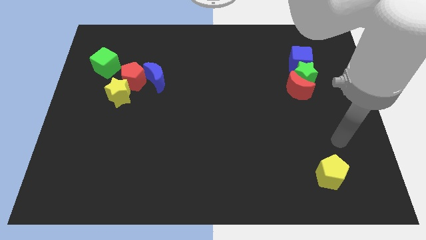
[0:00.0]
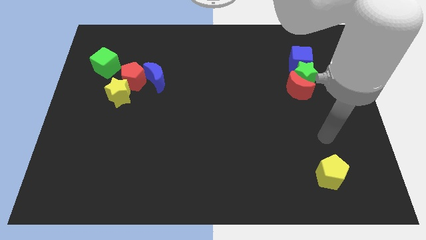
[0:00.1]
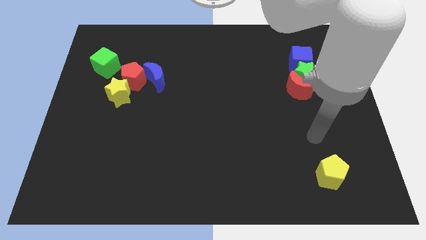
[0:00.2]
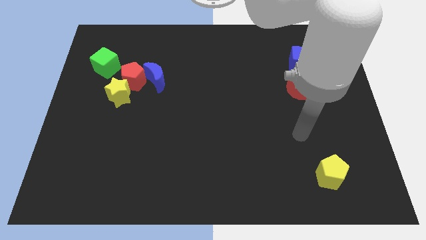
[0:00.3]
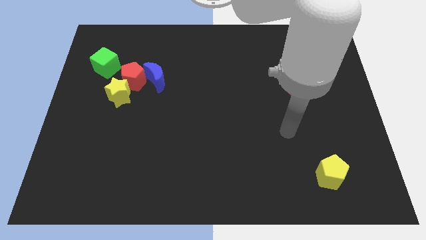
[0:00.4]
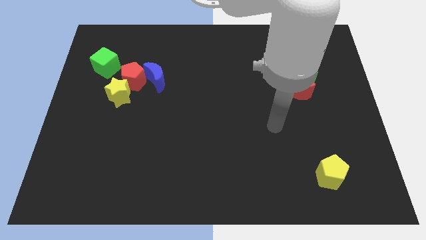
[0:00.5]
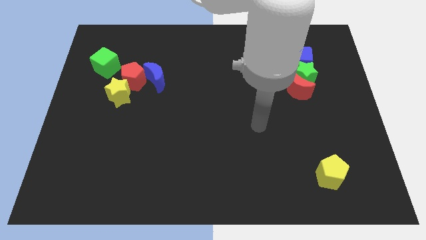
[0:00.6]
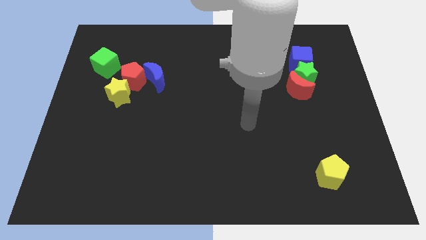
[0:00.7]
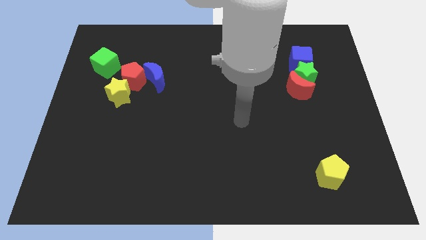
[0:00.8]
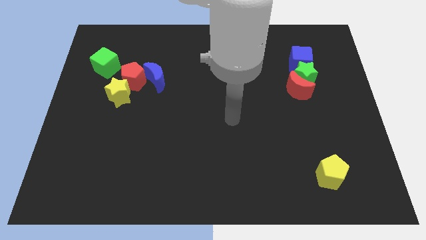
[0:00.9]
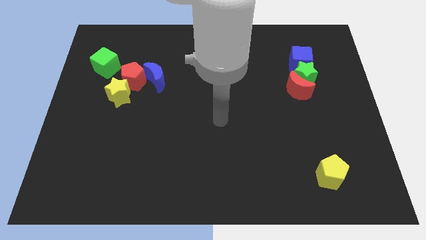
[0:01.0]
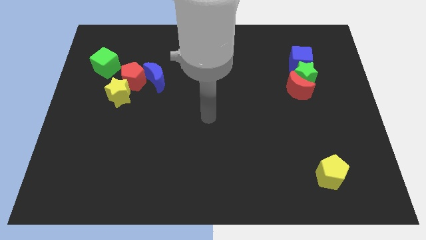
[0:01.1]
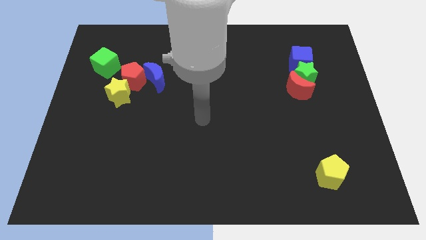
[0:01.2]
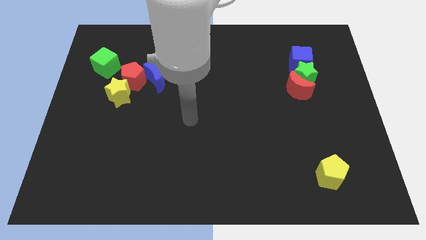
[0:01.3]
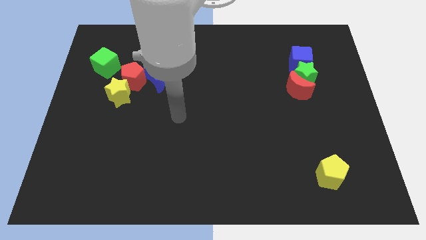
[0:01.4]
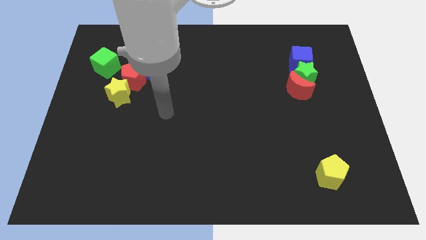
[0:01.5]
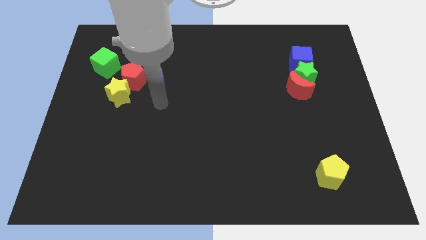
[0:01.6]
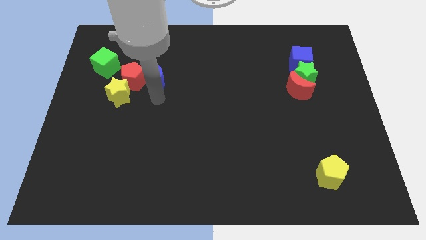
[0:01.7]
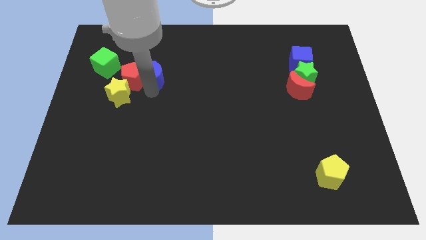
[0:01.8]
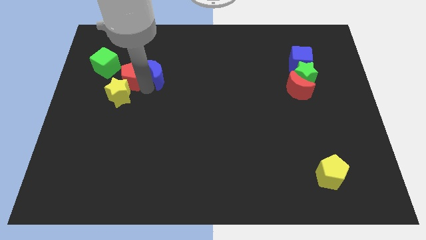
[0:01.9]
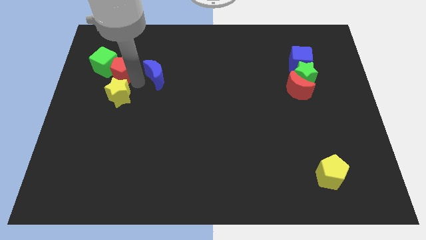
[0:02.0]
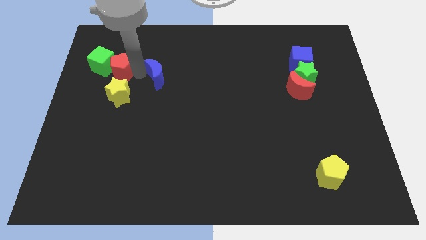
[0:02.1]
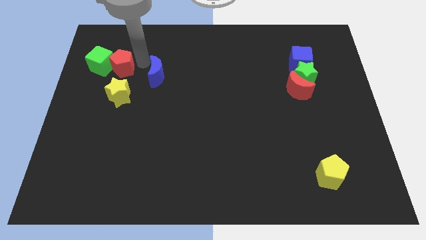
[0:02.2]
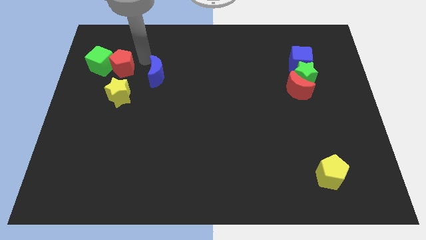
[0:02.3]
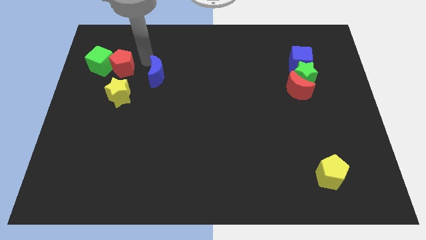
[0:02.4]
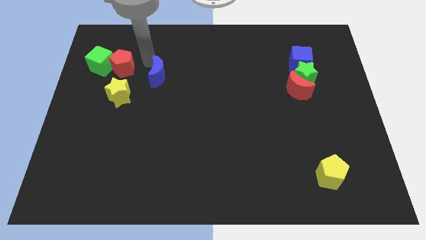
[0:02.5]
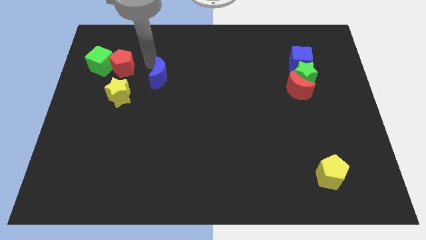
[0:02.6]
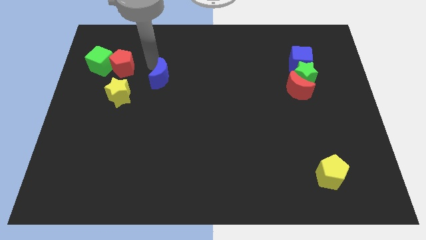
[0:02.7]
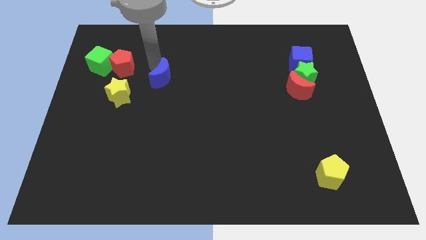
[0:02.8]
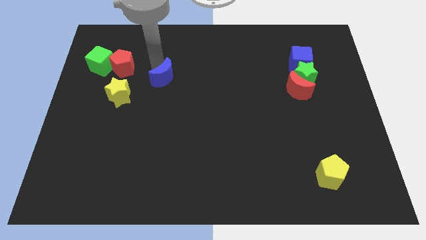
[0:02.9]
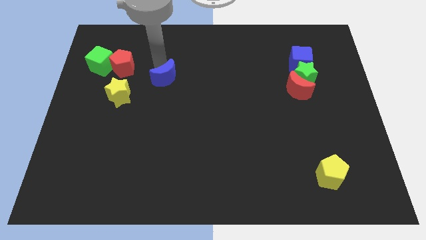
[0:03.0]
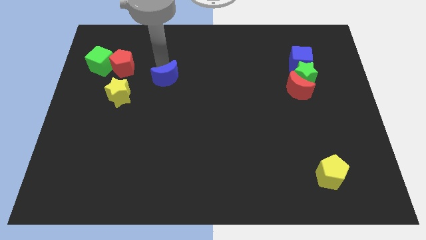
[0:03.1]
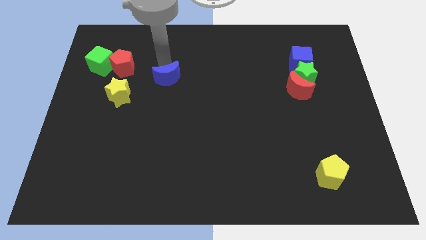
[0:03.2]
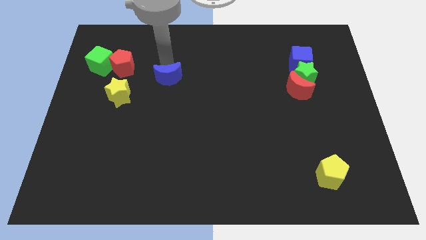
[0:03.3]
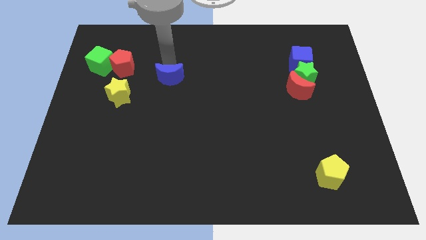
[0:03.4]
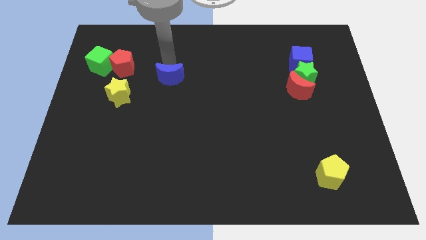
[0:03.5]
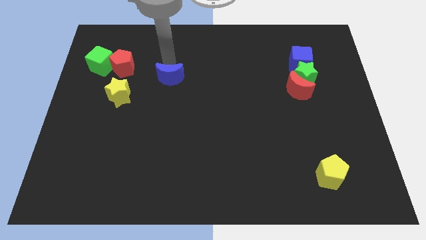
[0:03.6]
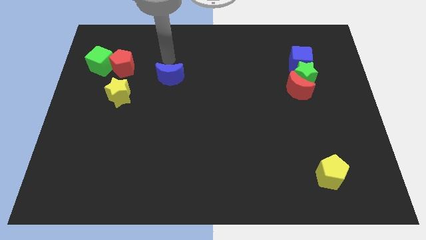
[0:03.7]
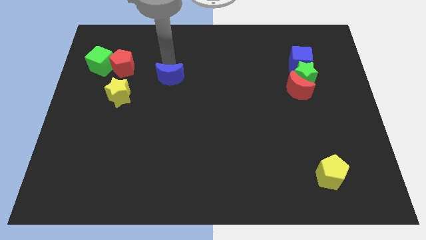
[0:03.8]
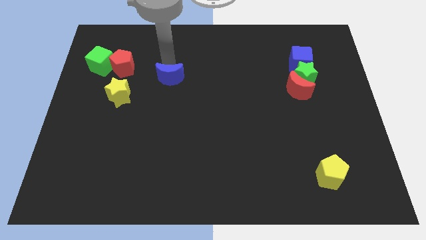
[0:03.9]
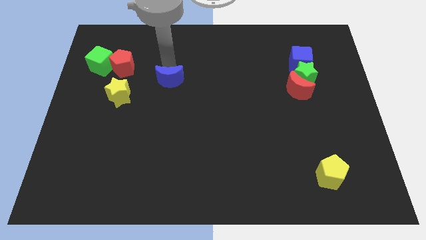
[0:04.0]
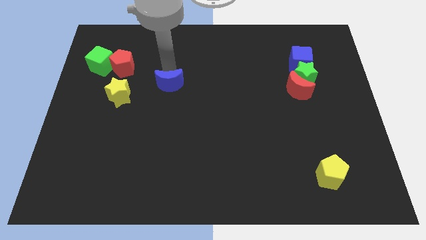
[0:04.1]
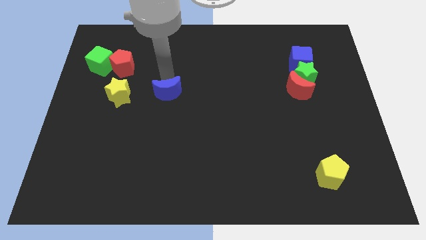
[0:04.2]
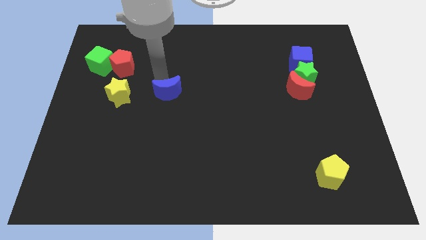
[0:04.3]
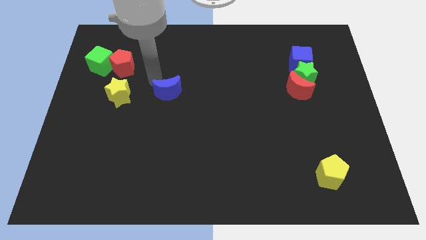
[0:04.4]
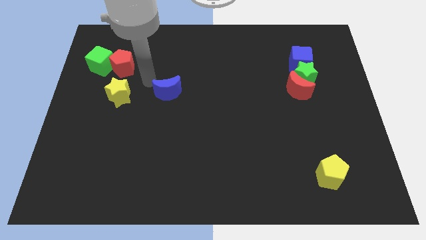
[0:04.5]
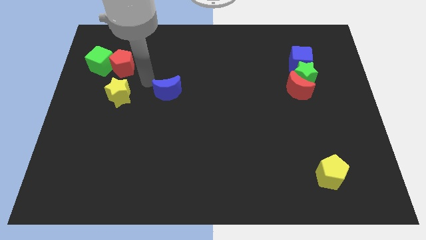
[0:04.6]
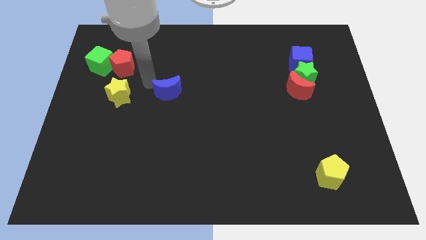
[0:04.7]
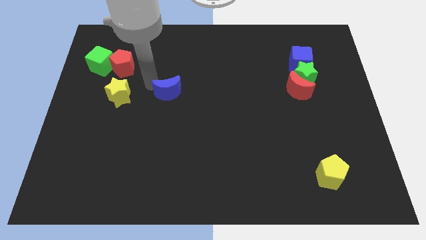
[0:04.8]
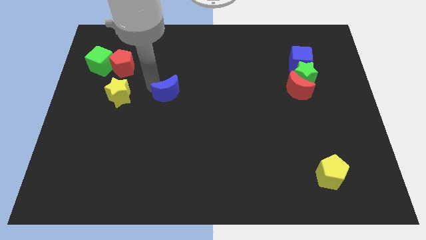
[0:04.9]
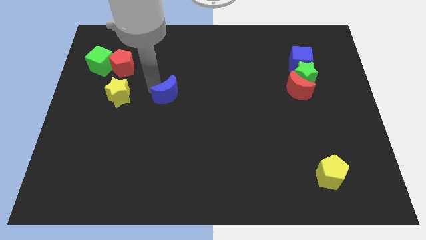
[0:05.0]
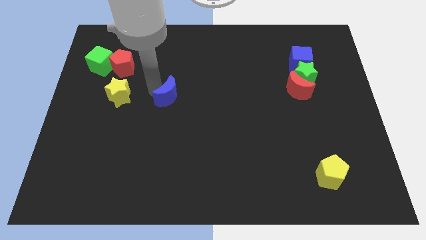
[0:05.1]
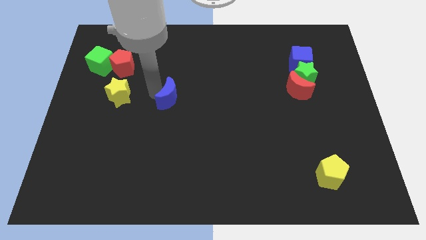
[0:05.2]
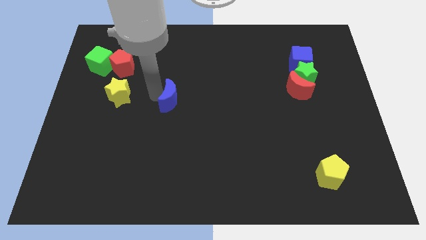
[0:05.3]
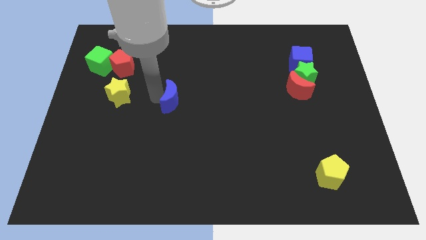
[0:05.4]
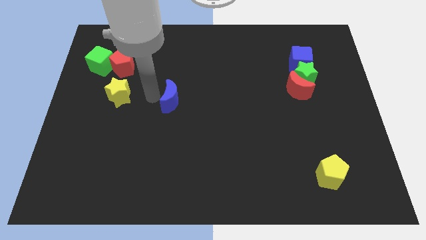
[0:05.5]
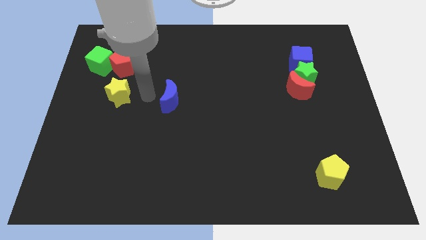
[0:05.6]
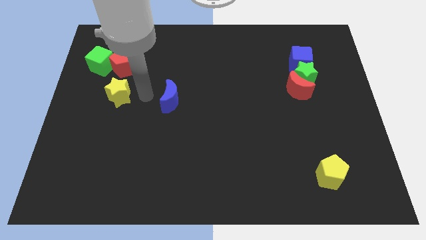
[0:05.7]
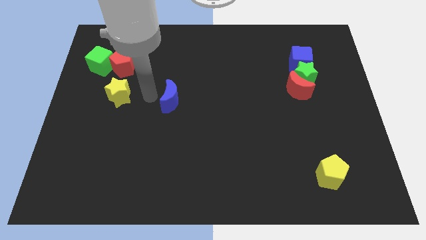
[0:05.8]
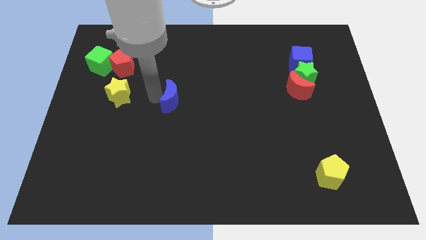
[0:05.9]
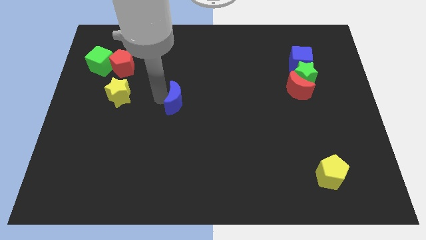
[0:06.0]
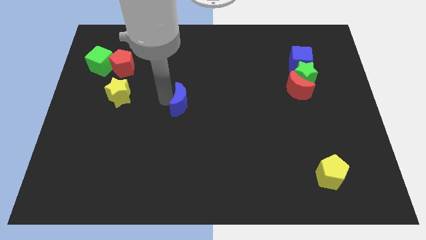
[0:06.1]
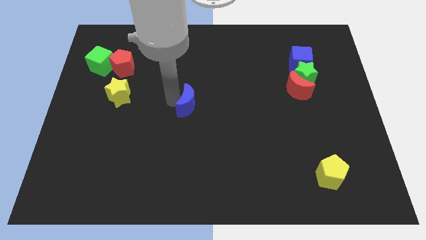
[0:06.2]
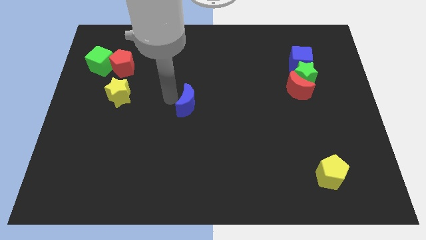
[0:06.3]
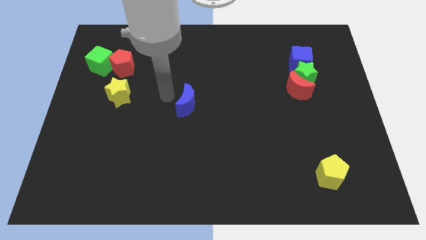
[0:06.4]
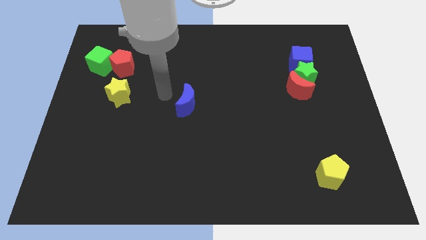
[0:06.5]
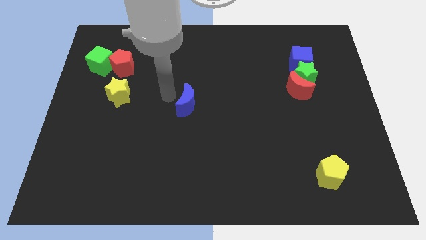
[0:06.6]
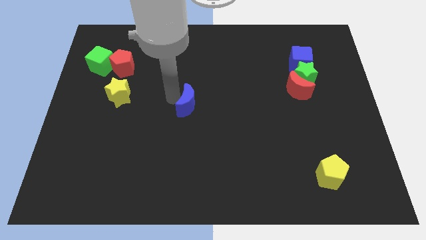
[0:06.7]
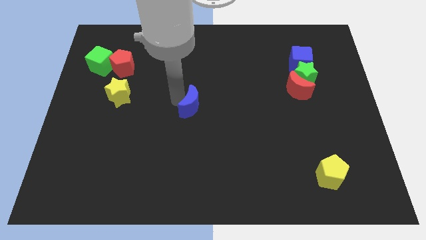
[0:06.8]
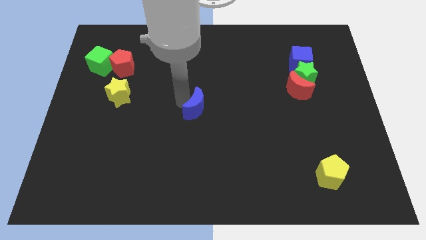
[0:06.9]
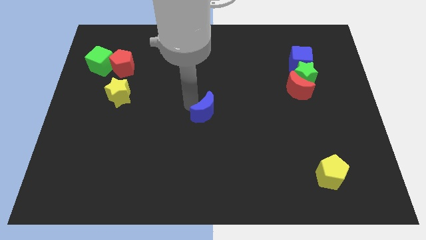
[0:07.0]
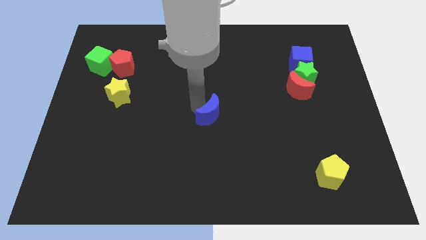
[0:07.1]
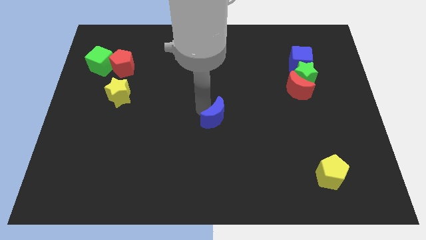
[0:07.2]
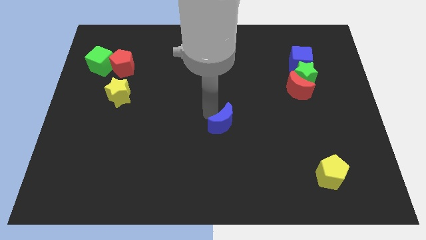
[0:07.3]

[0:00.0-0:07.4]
push the blue moon diagonally down and right

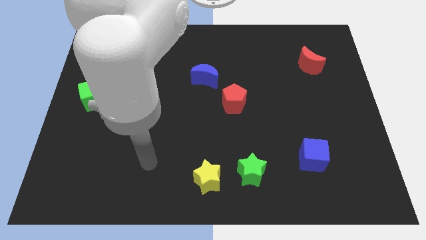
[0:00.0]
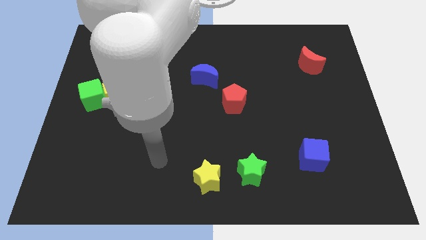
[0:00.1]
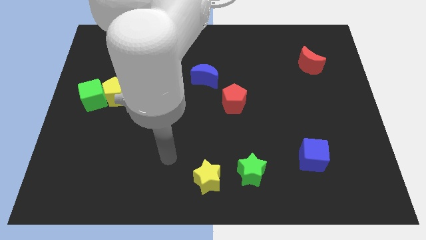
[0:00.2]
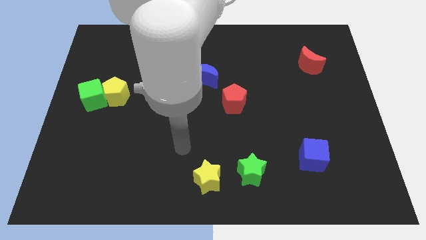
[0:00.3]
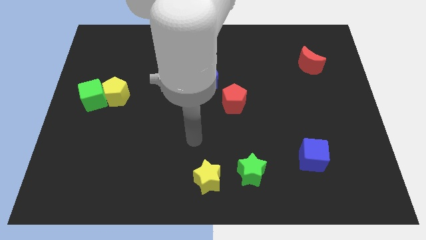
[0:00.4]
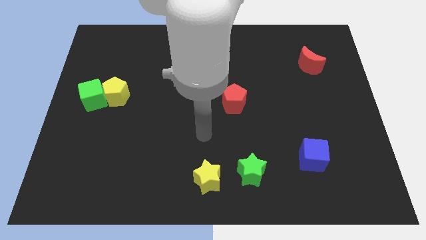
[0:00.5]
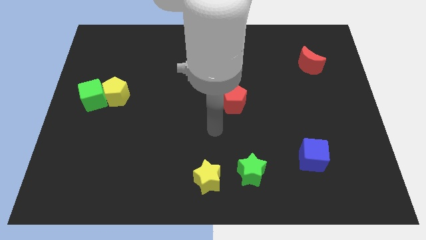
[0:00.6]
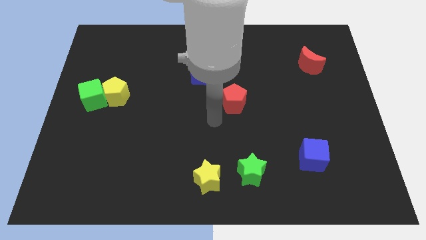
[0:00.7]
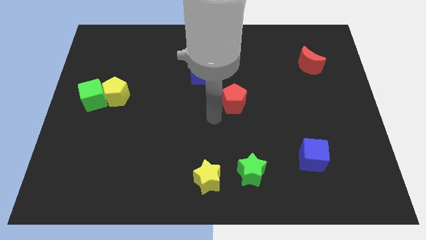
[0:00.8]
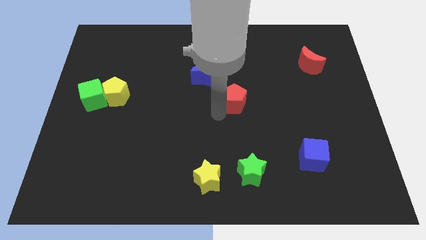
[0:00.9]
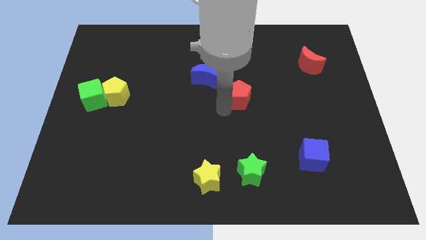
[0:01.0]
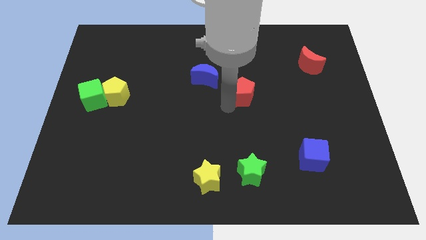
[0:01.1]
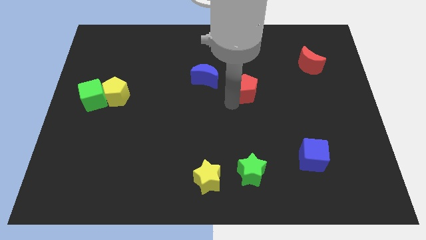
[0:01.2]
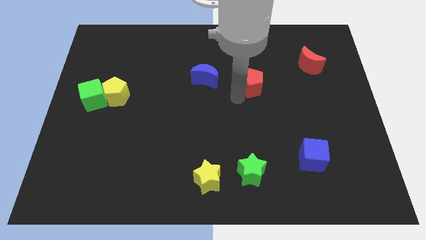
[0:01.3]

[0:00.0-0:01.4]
slightly slide the red pentagon upwards and right diagonally
